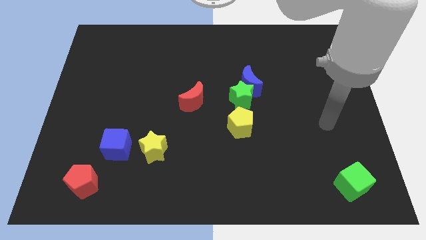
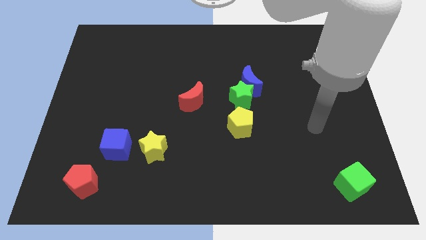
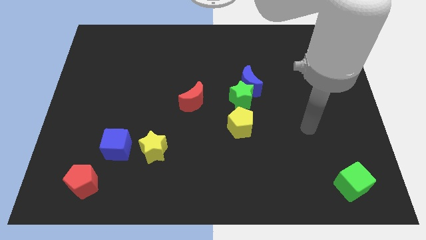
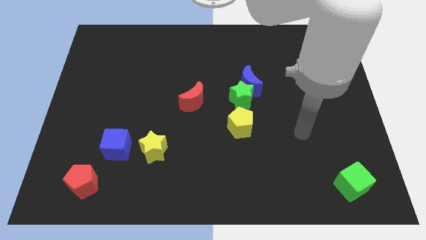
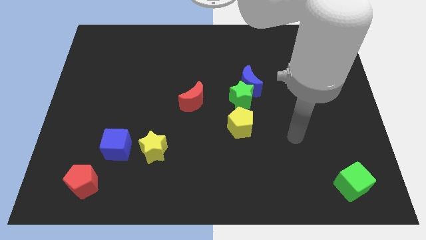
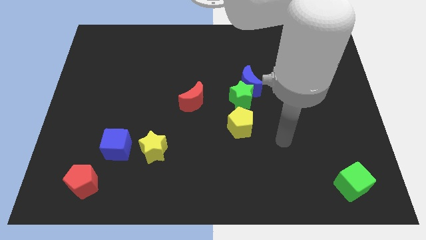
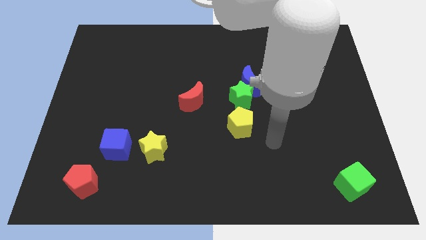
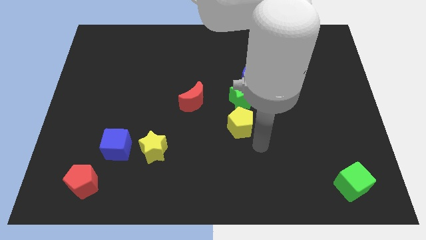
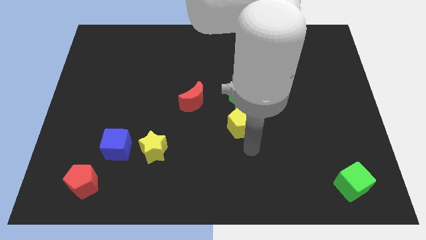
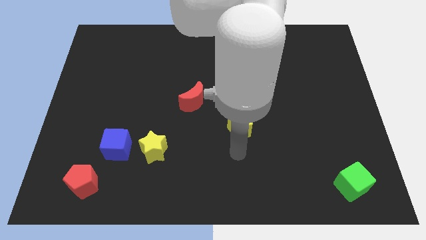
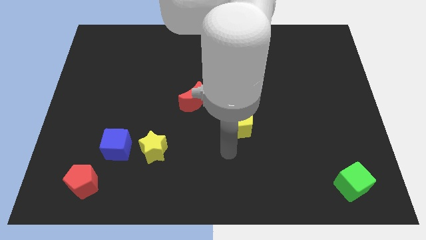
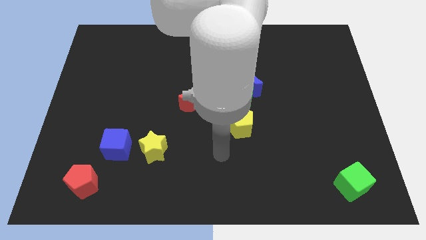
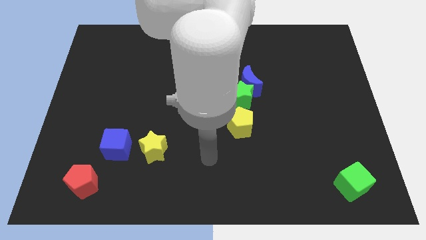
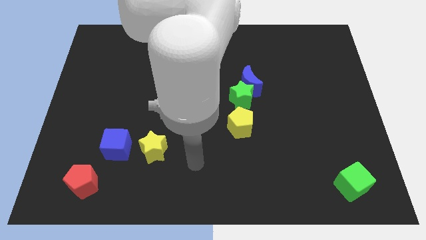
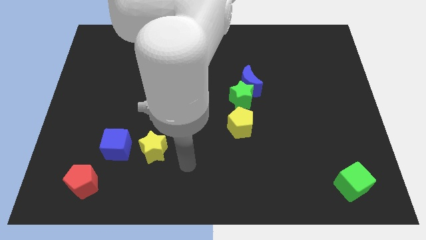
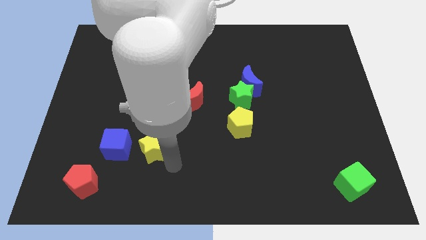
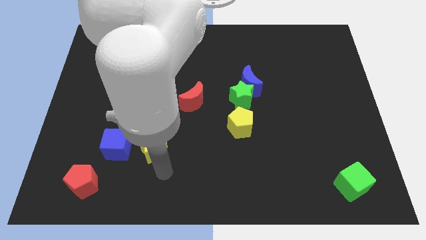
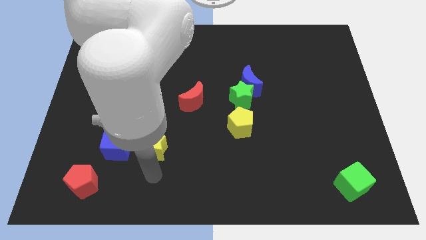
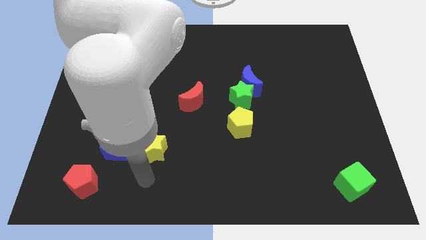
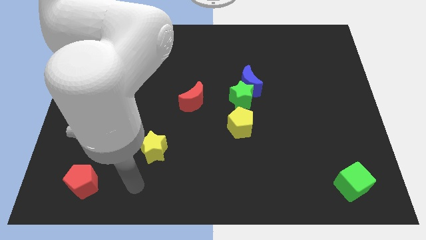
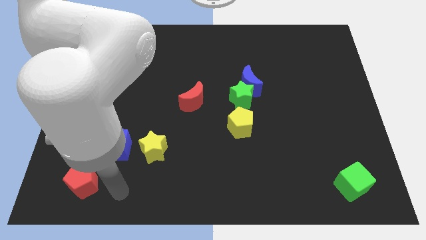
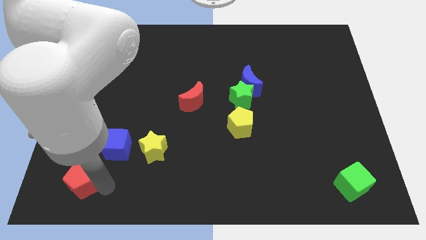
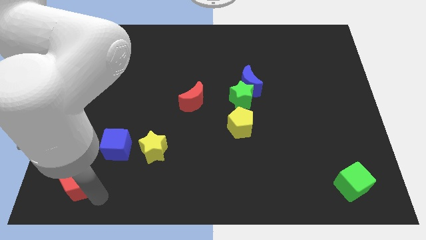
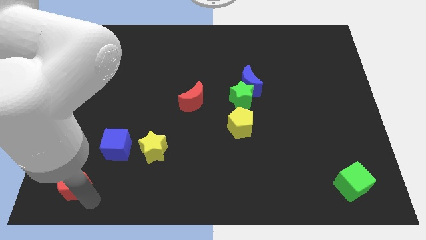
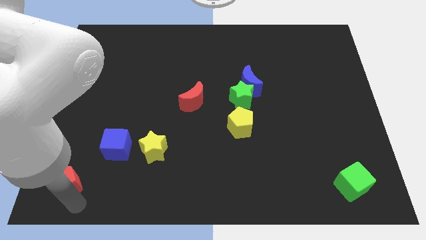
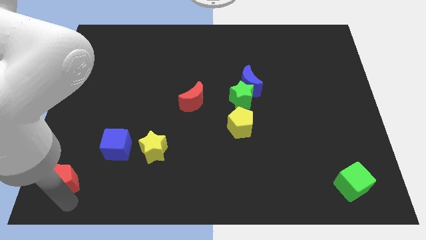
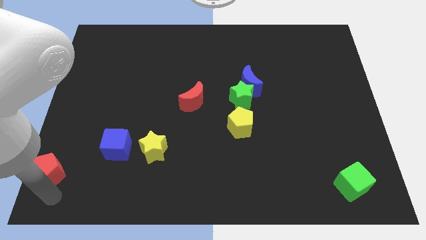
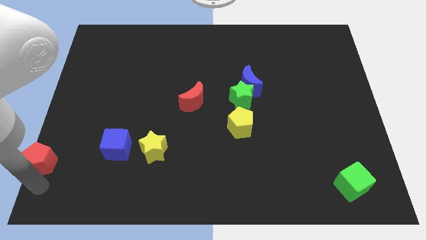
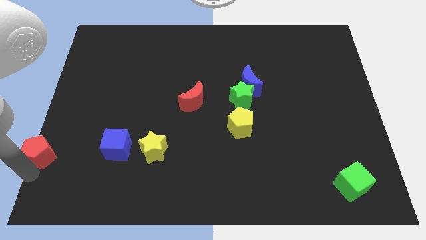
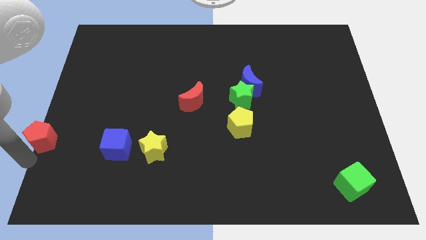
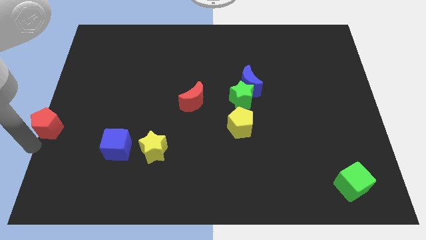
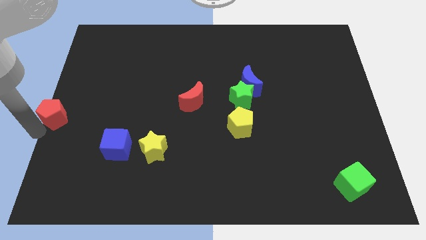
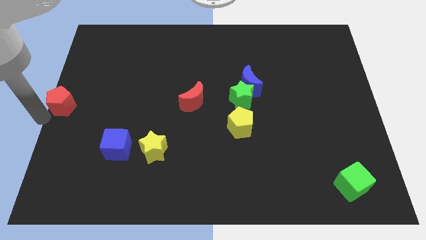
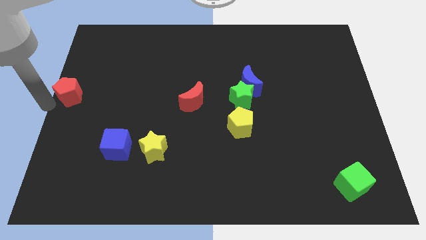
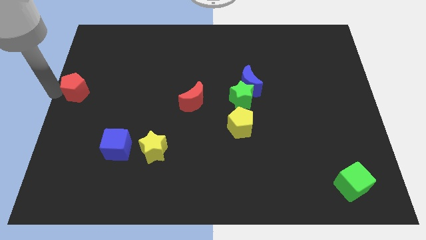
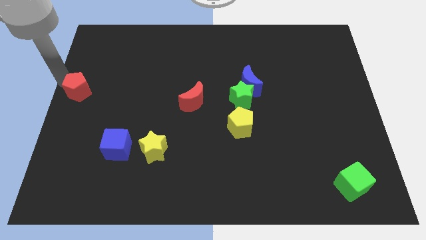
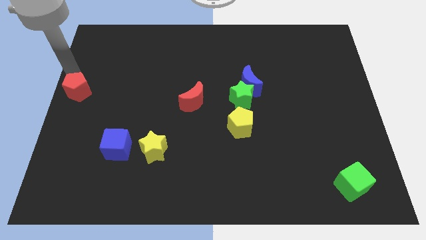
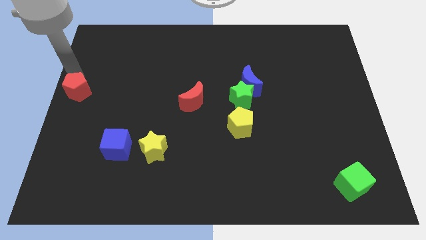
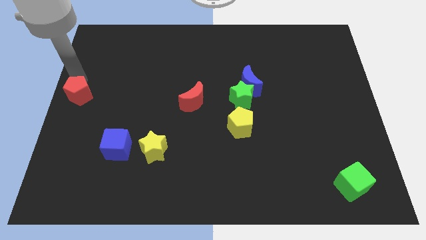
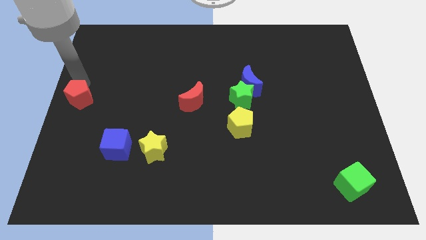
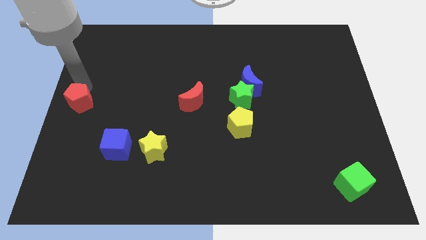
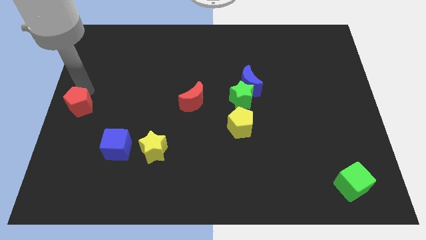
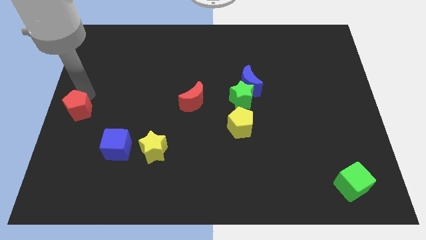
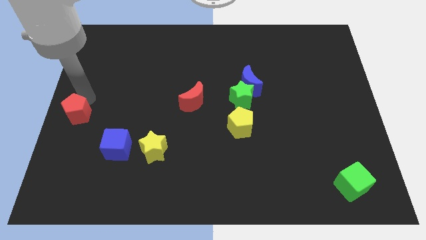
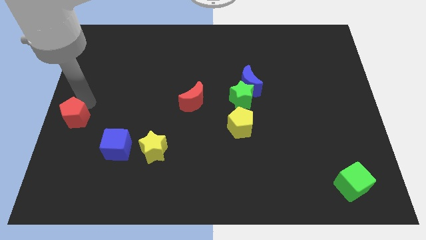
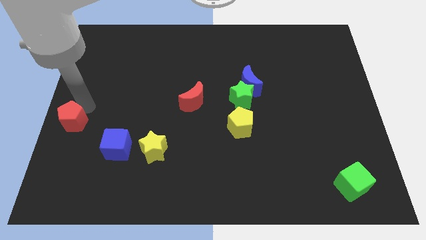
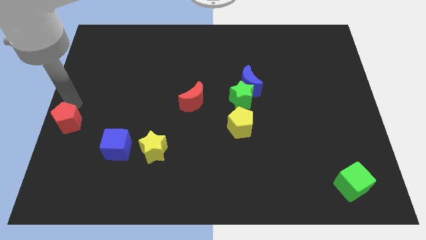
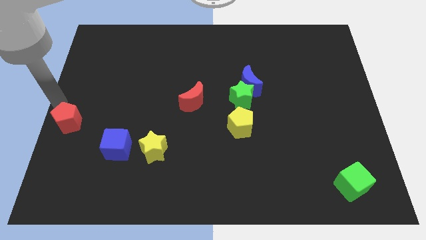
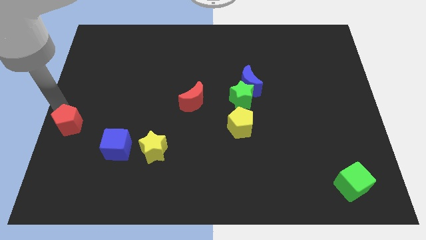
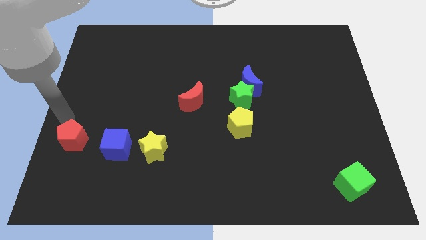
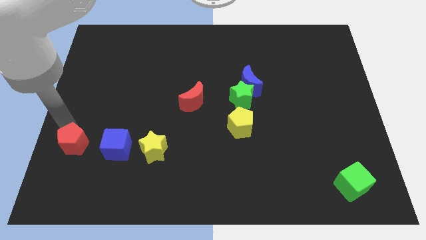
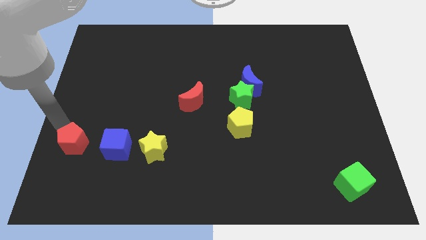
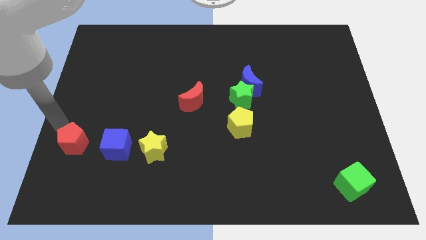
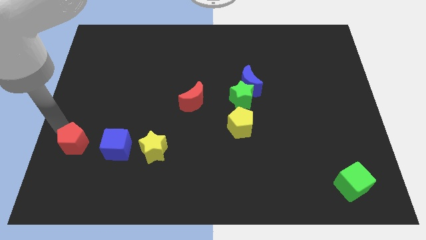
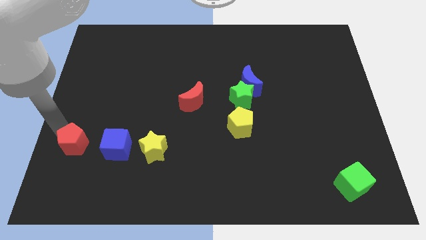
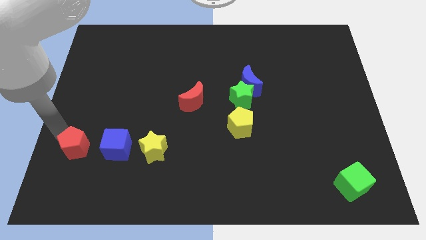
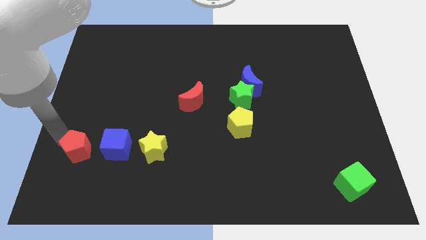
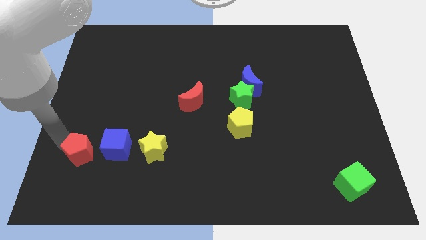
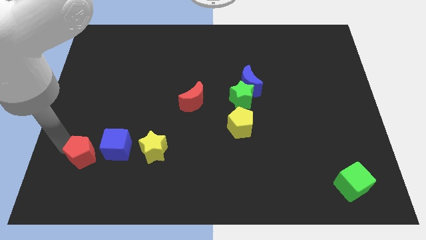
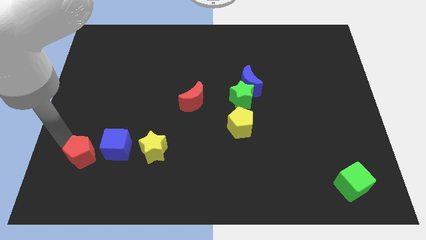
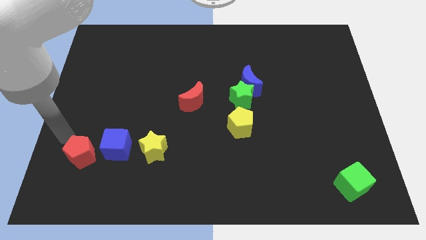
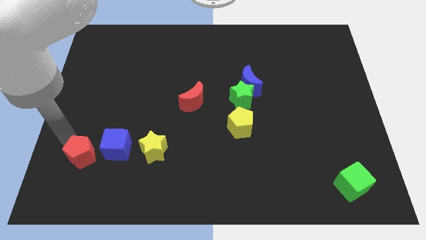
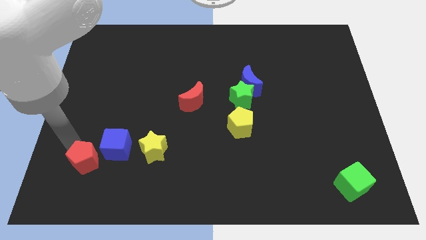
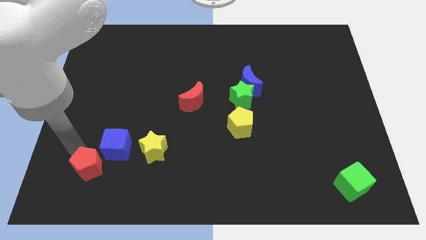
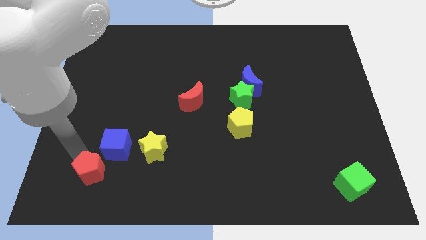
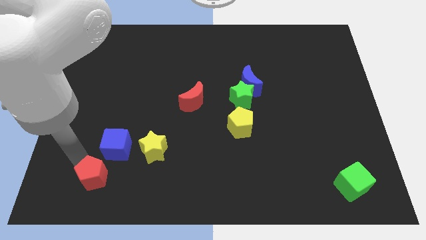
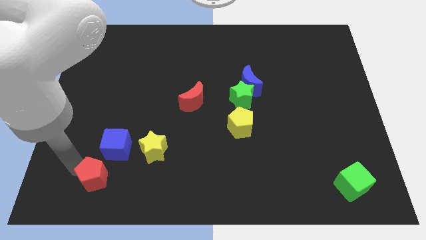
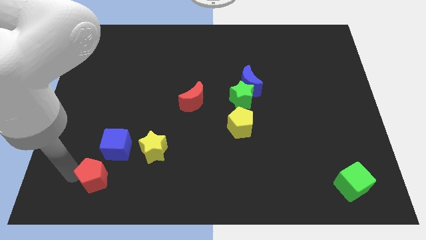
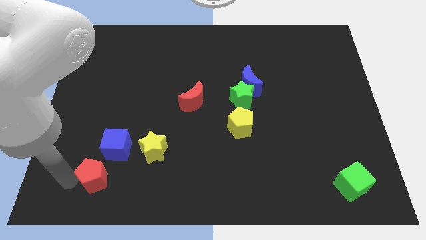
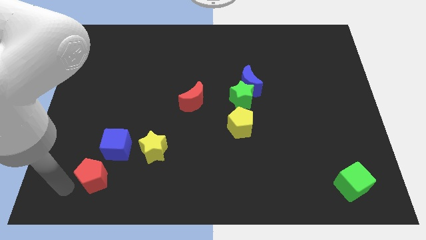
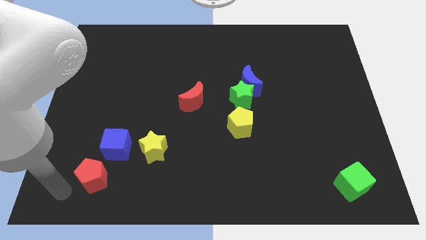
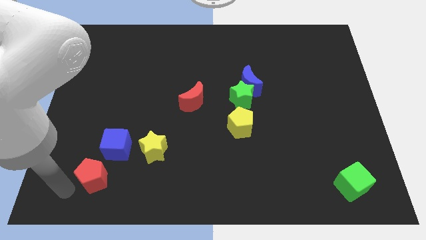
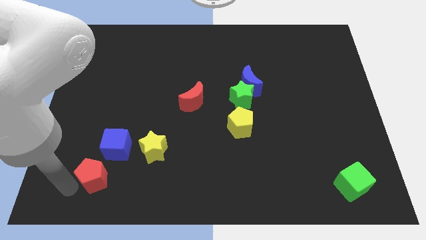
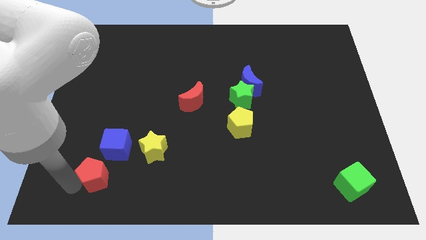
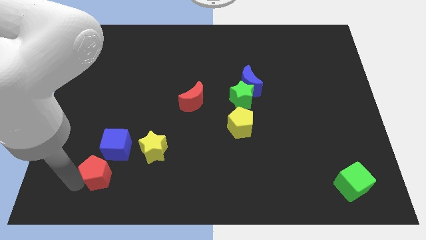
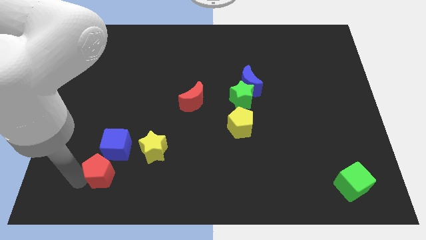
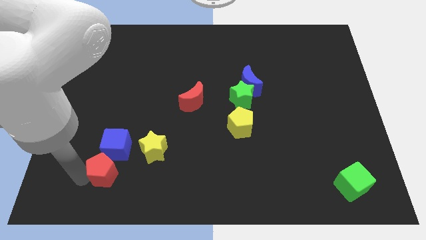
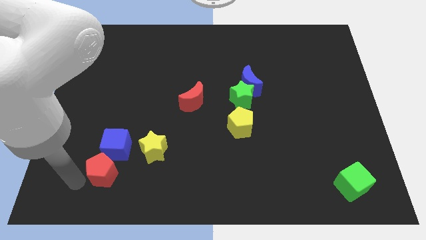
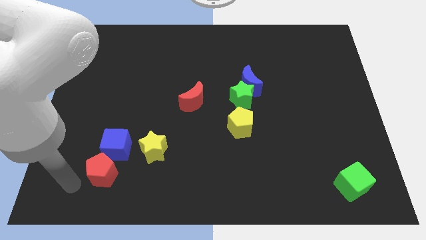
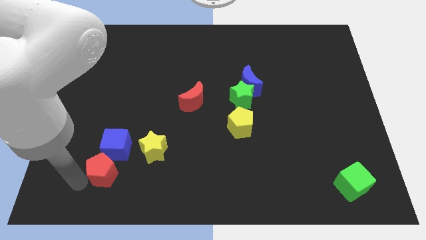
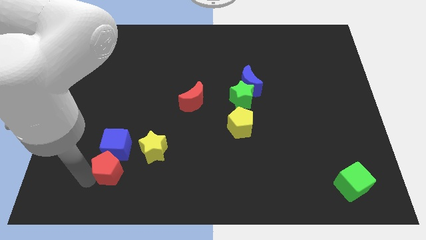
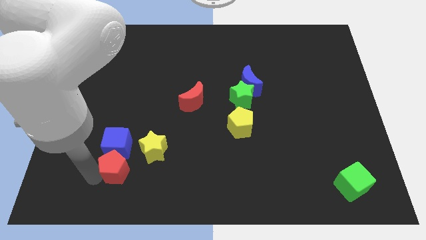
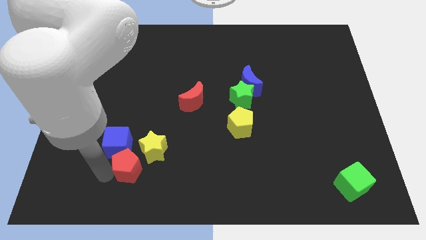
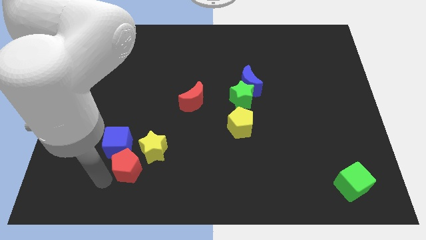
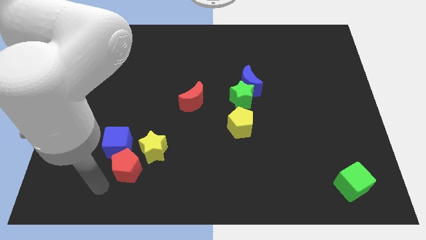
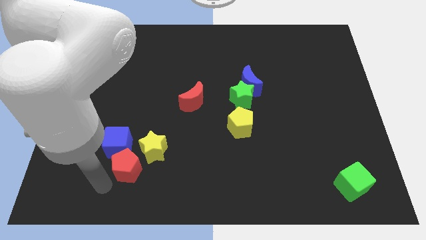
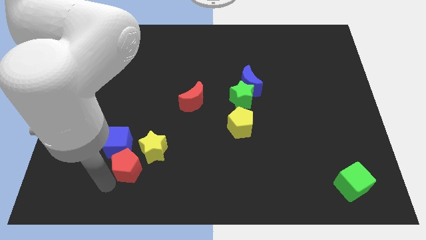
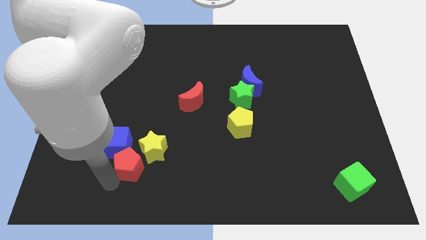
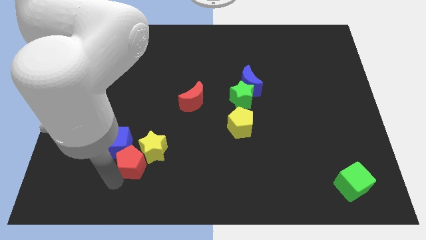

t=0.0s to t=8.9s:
push the red pentagon to the yellow star
